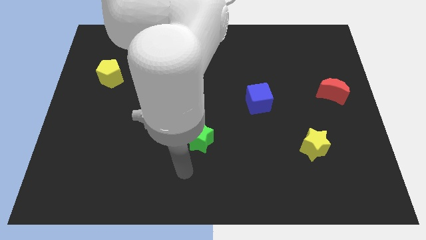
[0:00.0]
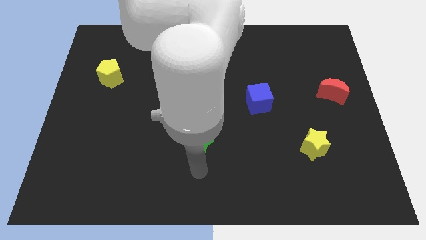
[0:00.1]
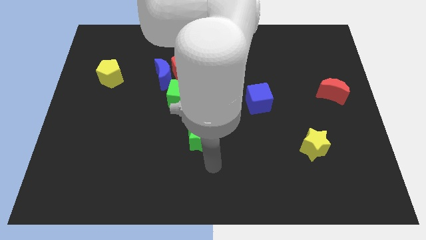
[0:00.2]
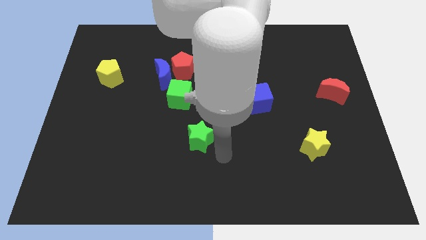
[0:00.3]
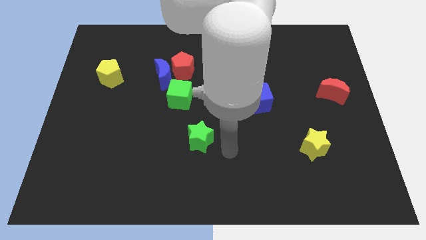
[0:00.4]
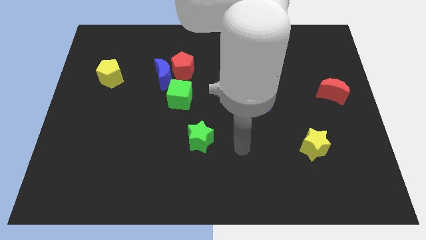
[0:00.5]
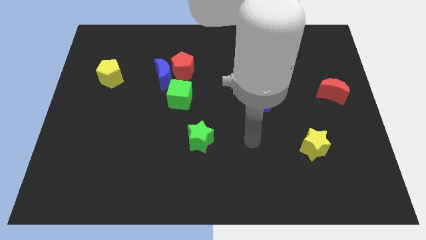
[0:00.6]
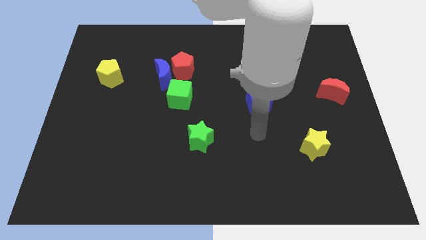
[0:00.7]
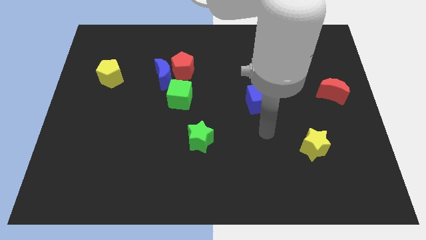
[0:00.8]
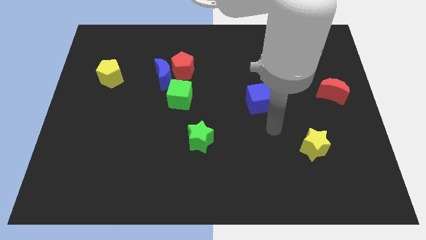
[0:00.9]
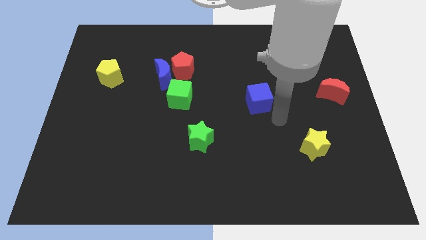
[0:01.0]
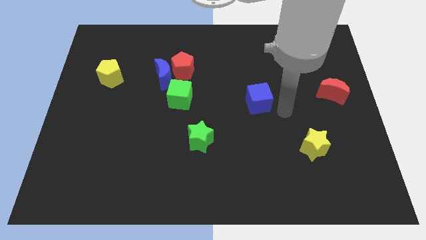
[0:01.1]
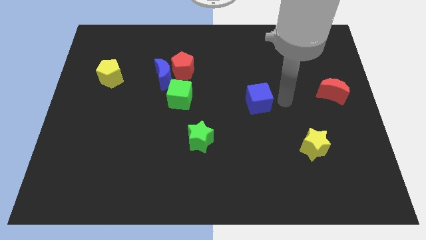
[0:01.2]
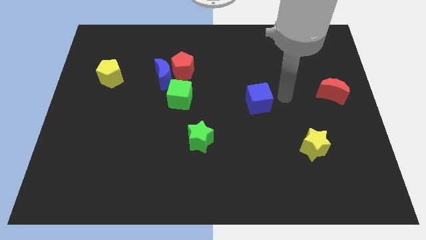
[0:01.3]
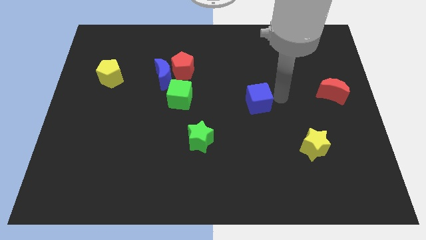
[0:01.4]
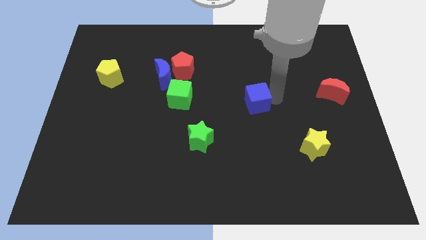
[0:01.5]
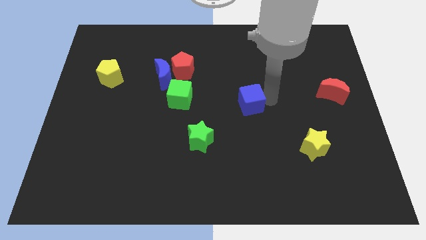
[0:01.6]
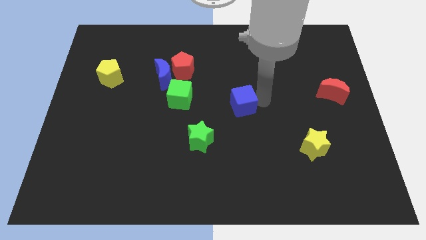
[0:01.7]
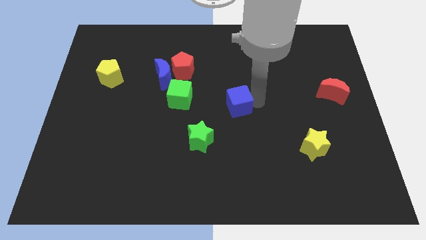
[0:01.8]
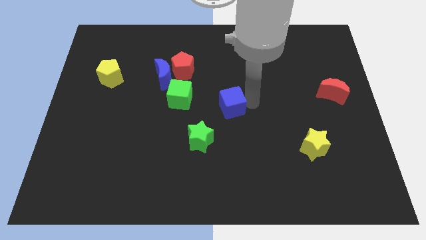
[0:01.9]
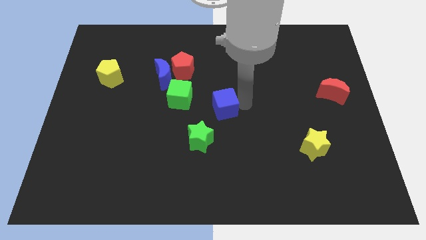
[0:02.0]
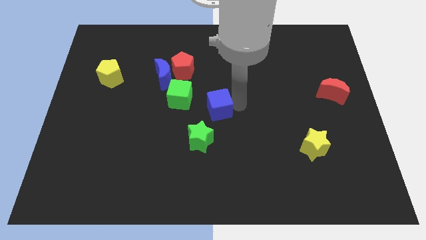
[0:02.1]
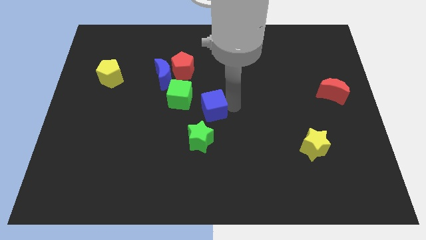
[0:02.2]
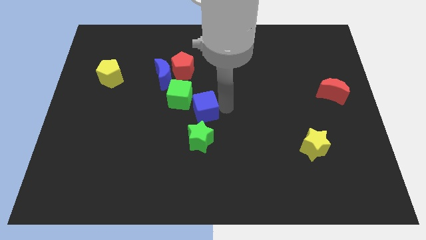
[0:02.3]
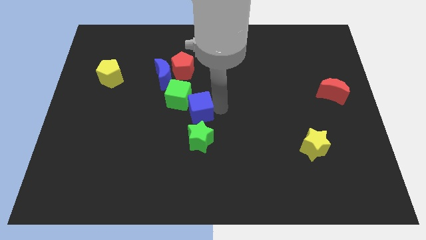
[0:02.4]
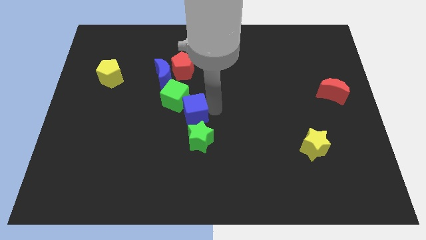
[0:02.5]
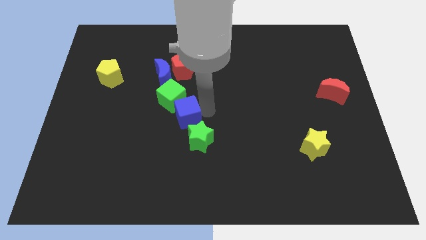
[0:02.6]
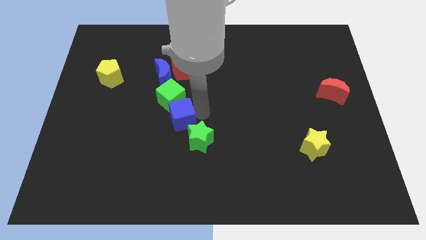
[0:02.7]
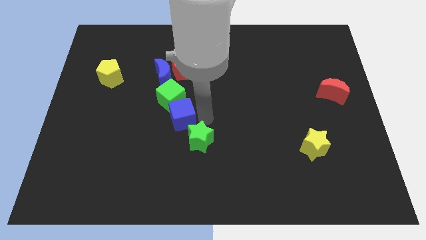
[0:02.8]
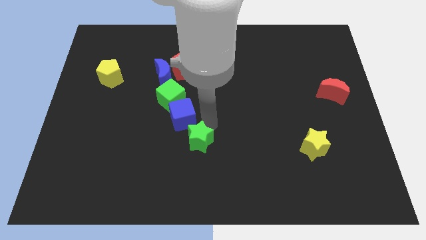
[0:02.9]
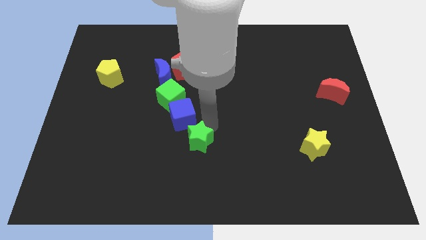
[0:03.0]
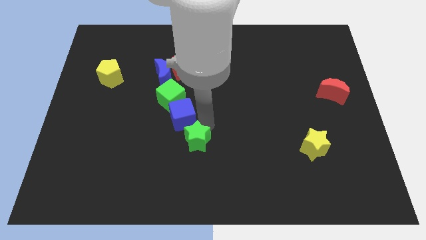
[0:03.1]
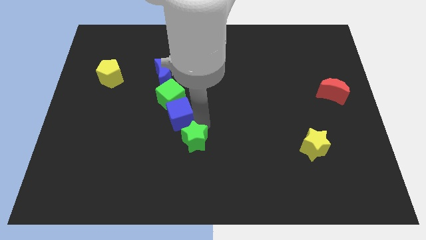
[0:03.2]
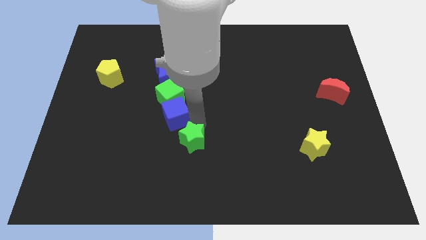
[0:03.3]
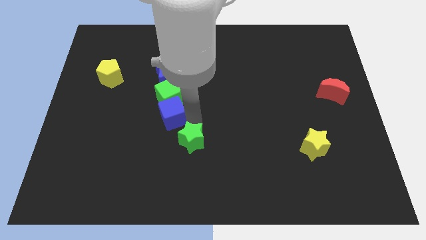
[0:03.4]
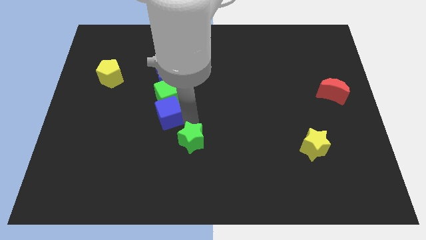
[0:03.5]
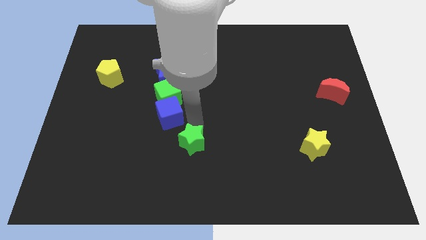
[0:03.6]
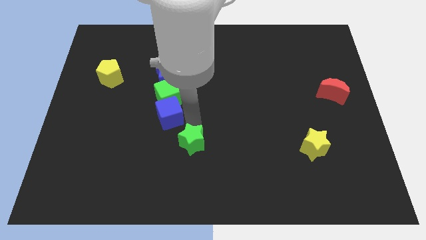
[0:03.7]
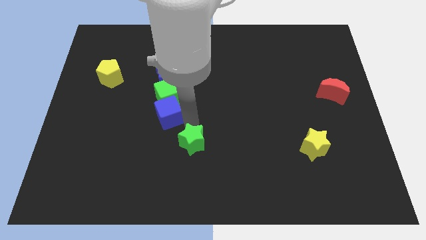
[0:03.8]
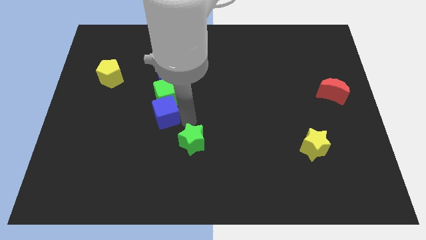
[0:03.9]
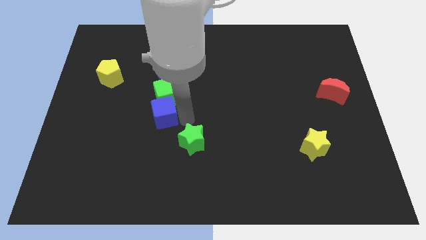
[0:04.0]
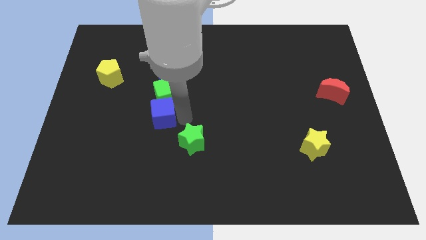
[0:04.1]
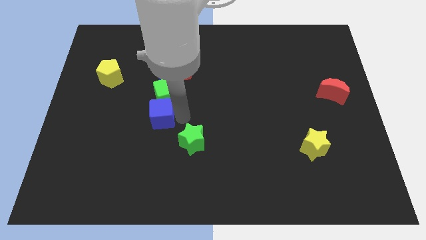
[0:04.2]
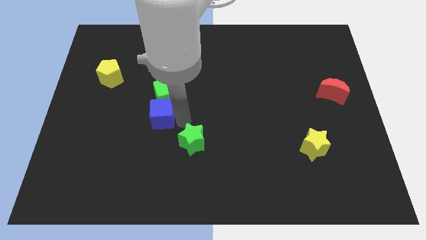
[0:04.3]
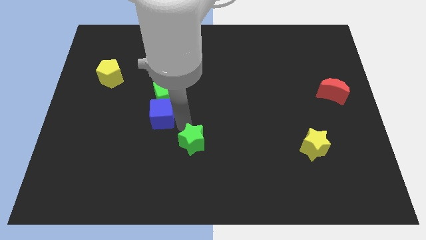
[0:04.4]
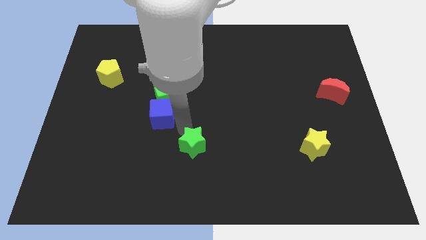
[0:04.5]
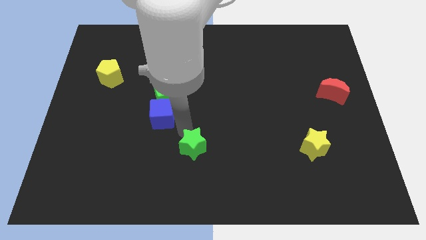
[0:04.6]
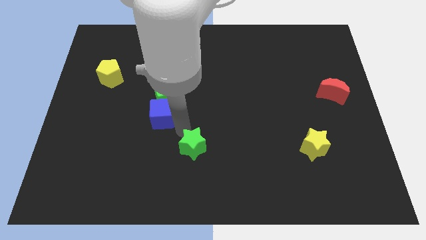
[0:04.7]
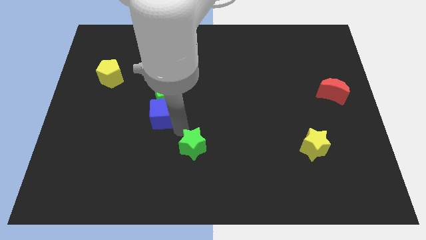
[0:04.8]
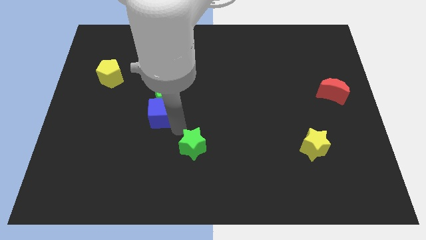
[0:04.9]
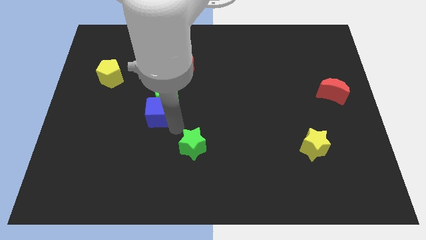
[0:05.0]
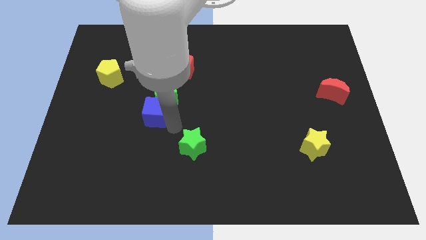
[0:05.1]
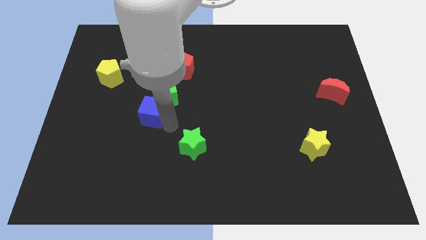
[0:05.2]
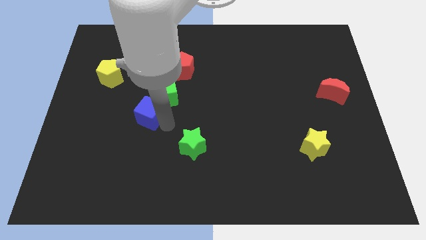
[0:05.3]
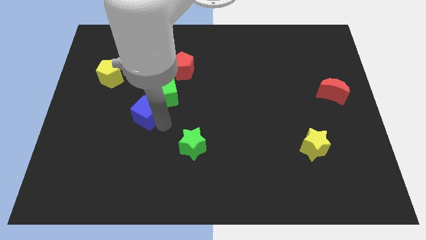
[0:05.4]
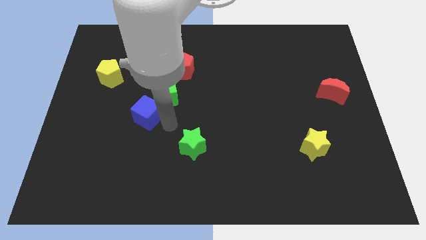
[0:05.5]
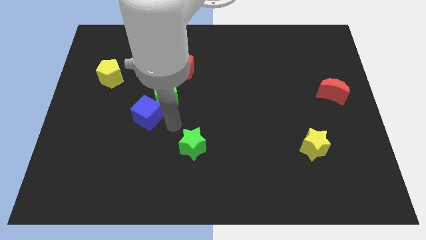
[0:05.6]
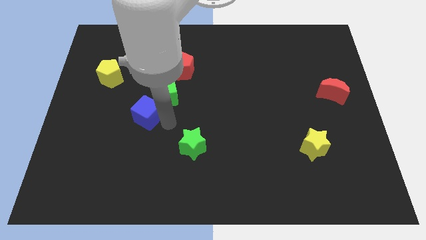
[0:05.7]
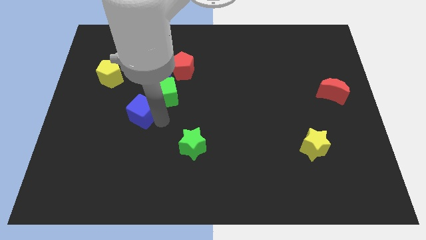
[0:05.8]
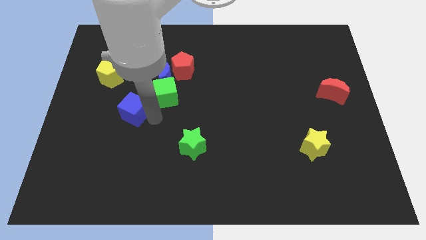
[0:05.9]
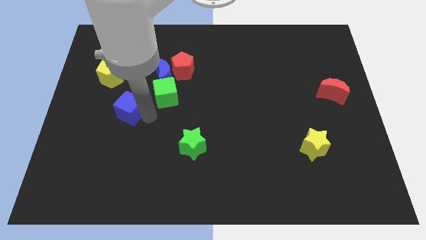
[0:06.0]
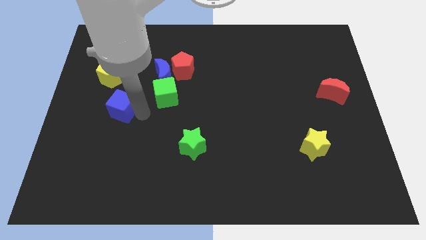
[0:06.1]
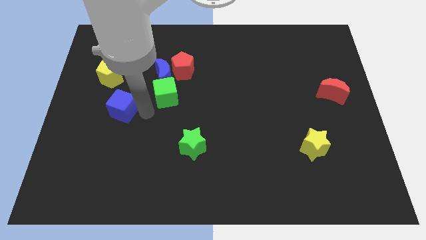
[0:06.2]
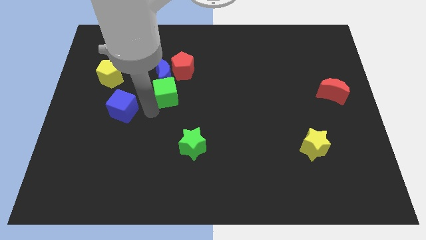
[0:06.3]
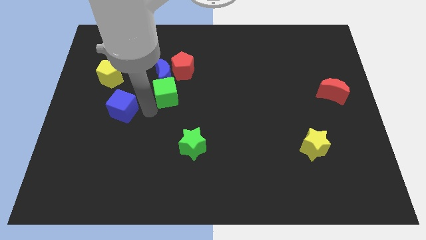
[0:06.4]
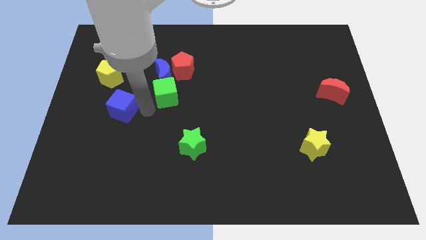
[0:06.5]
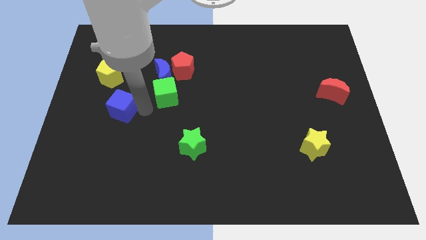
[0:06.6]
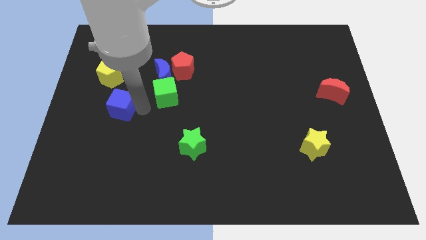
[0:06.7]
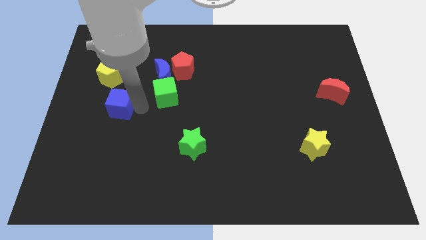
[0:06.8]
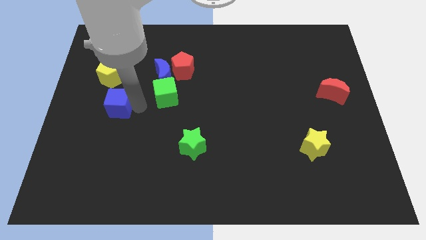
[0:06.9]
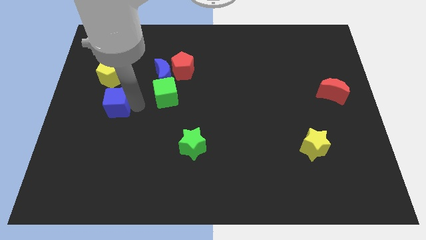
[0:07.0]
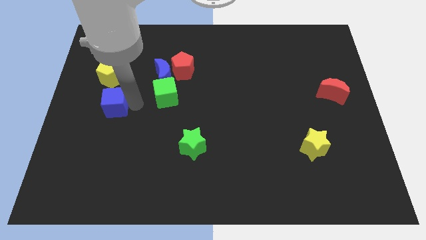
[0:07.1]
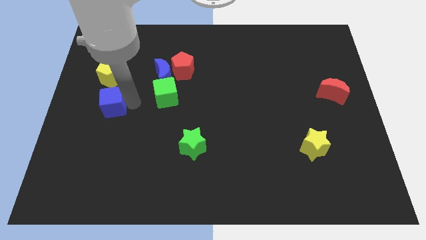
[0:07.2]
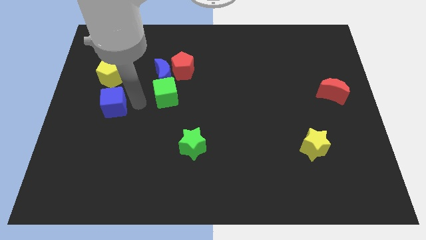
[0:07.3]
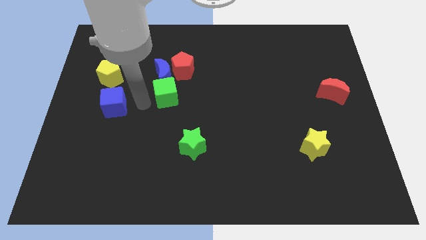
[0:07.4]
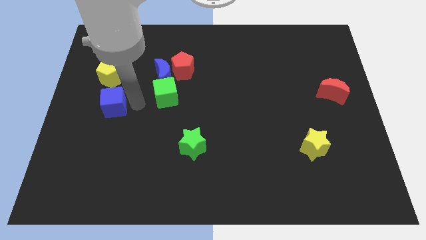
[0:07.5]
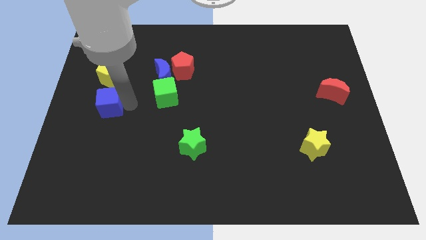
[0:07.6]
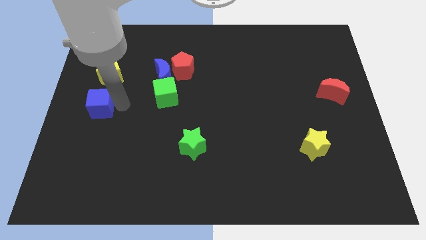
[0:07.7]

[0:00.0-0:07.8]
push the blue cube to the center left
